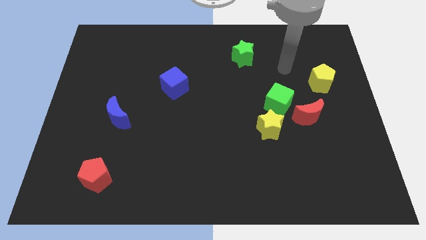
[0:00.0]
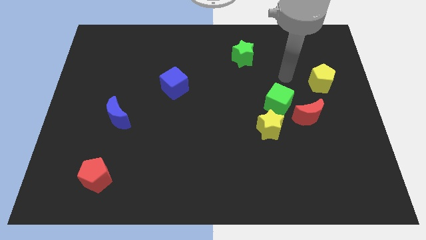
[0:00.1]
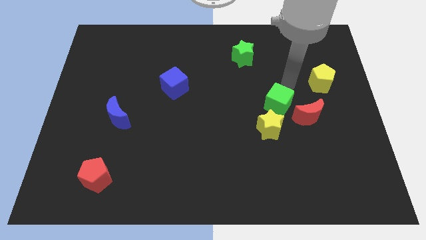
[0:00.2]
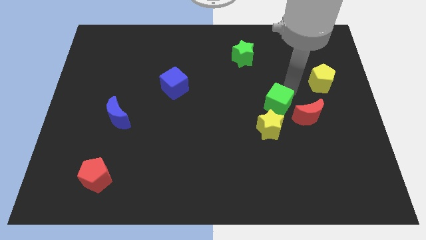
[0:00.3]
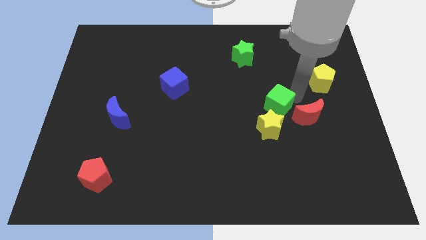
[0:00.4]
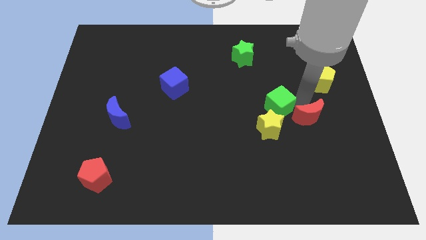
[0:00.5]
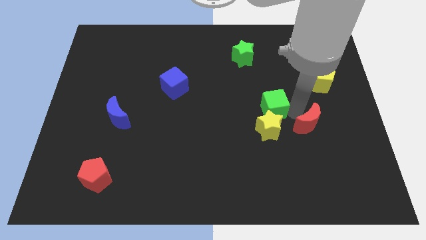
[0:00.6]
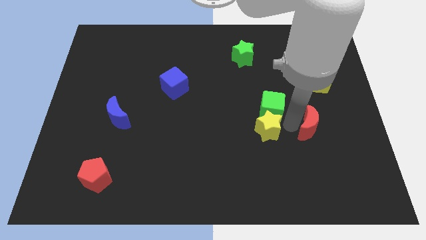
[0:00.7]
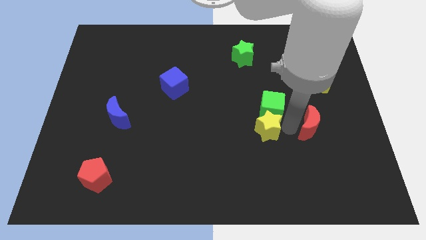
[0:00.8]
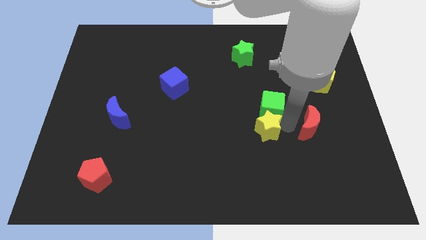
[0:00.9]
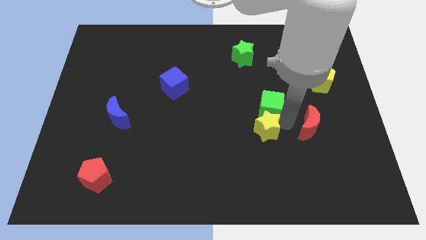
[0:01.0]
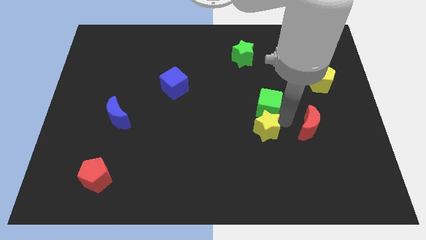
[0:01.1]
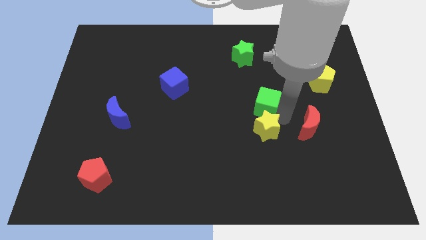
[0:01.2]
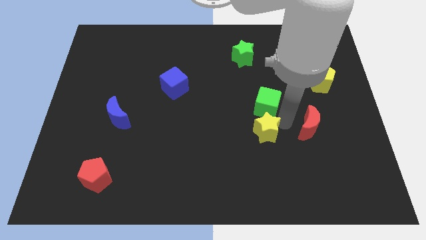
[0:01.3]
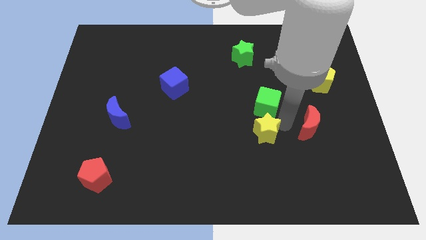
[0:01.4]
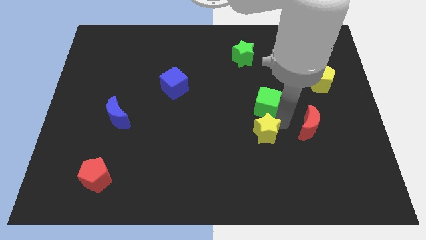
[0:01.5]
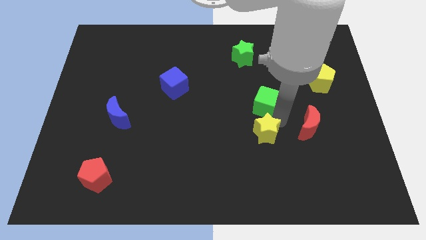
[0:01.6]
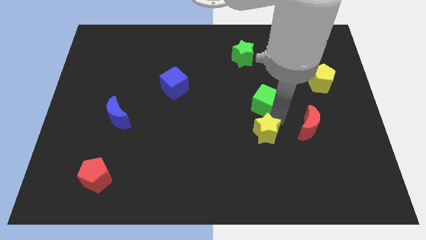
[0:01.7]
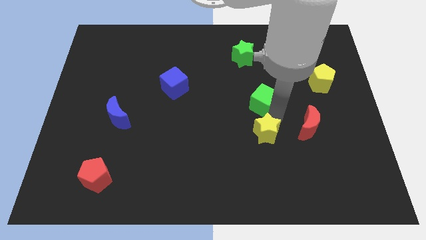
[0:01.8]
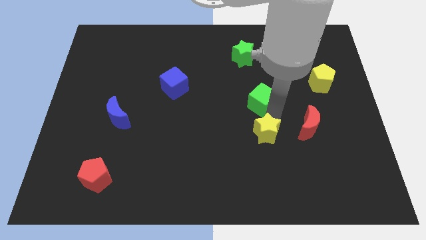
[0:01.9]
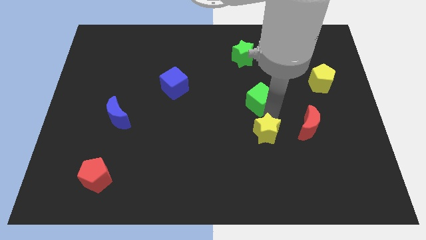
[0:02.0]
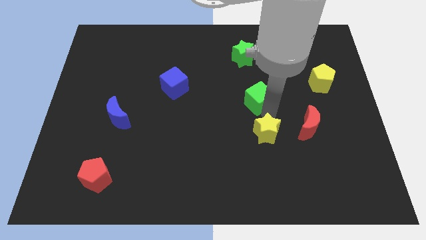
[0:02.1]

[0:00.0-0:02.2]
move the green cube away from the yellow star and red moon

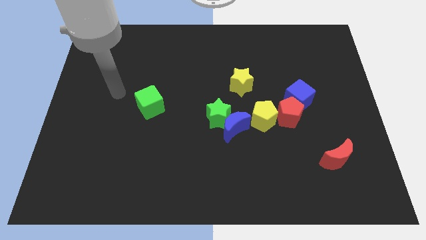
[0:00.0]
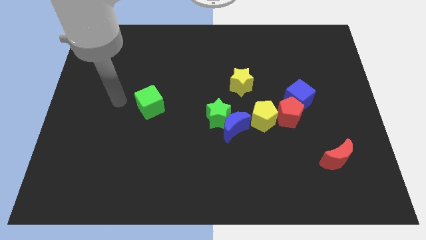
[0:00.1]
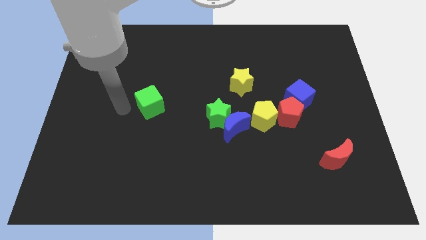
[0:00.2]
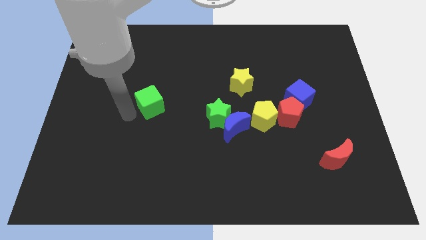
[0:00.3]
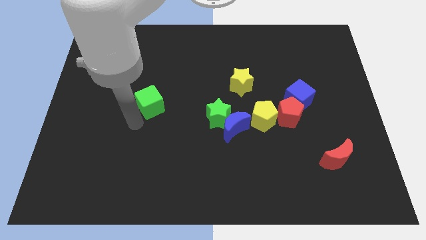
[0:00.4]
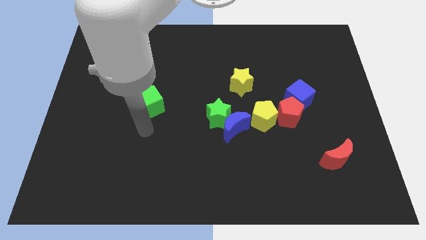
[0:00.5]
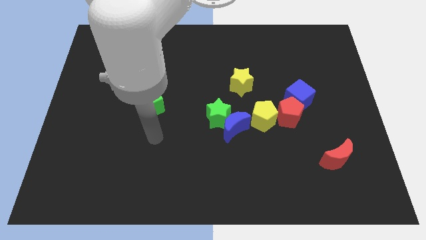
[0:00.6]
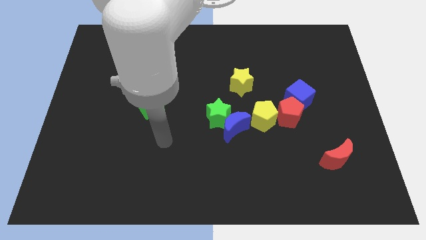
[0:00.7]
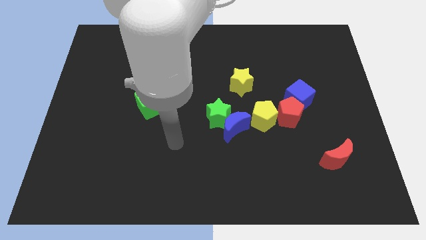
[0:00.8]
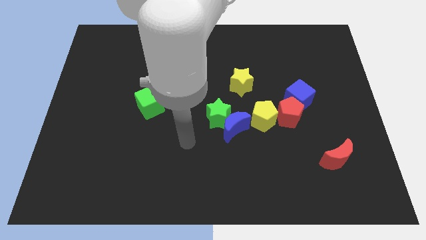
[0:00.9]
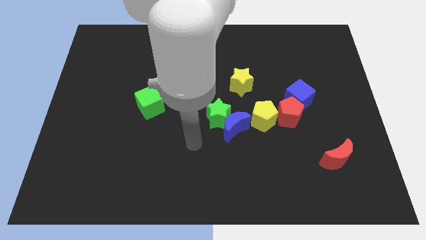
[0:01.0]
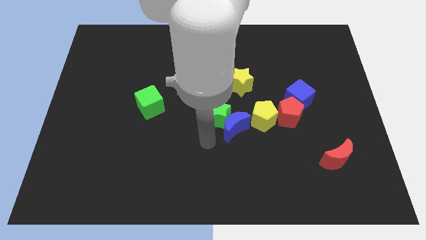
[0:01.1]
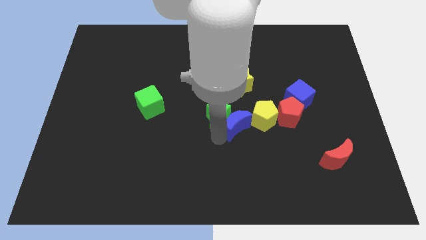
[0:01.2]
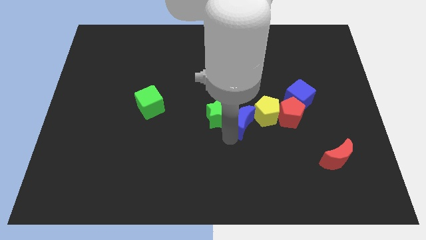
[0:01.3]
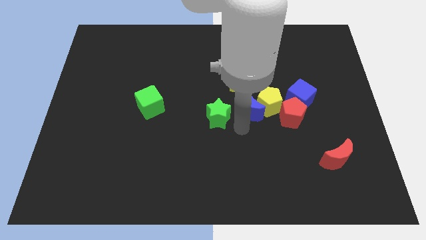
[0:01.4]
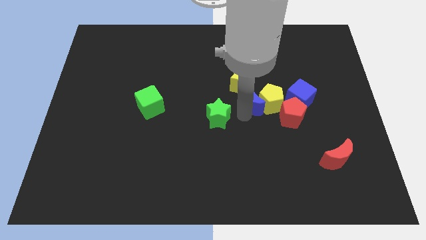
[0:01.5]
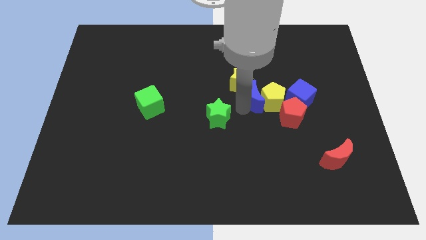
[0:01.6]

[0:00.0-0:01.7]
separate the green star from the blue moon

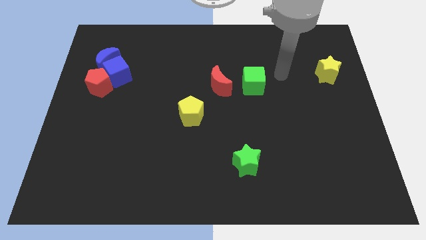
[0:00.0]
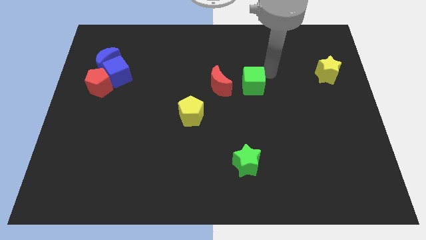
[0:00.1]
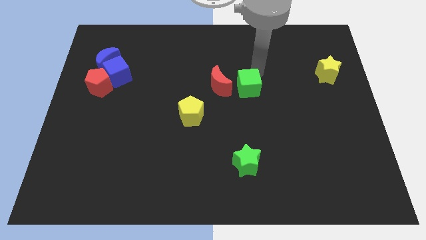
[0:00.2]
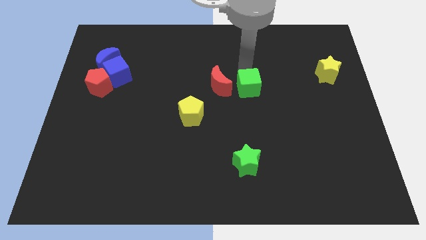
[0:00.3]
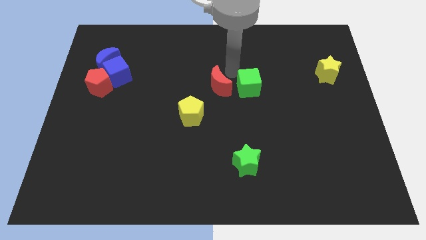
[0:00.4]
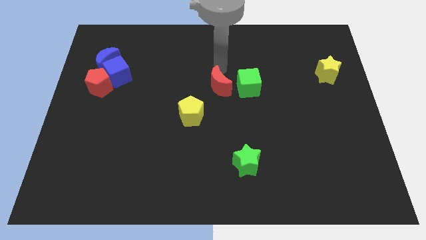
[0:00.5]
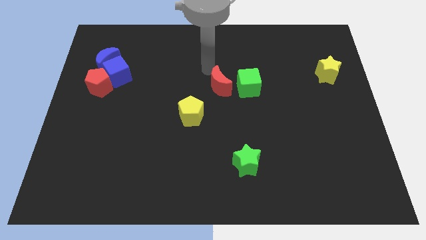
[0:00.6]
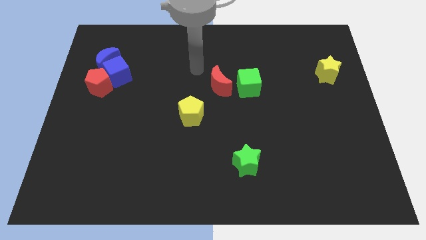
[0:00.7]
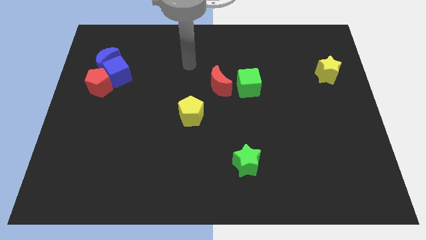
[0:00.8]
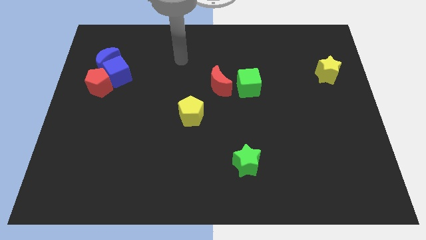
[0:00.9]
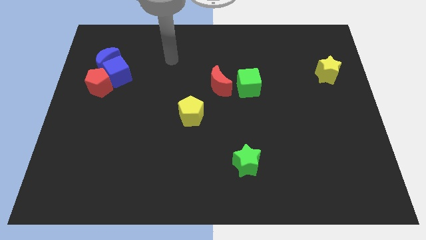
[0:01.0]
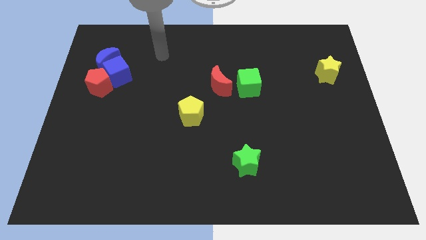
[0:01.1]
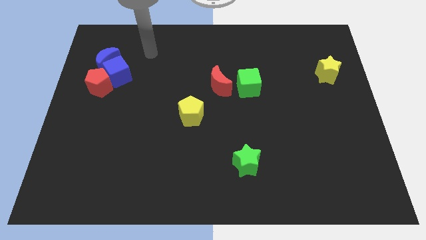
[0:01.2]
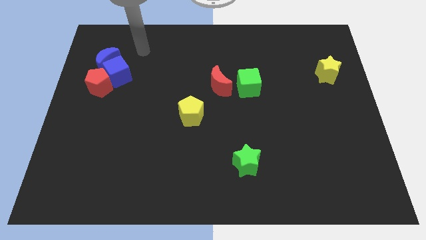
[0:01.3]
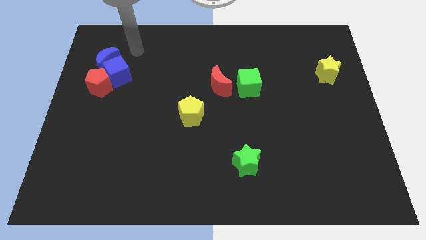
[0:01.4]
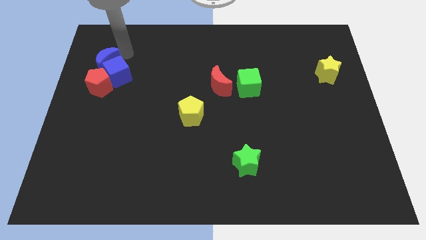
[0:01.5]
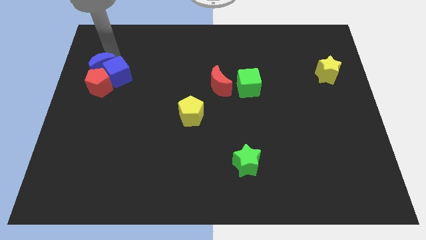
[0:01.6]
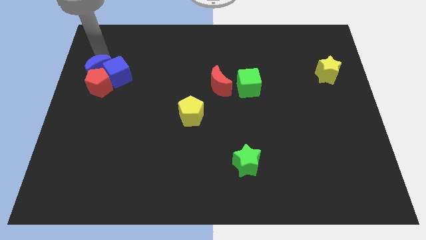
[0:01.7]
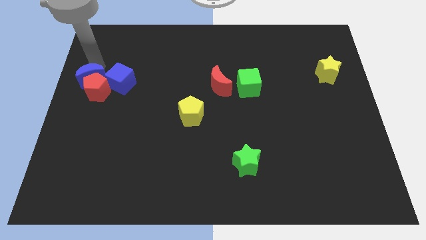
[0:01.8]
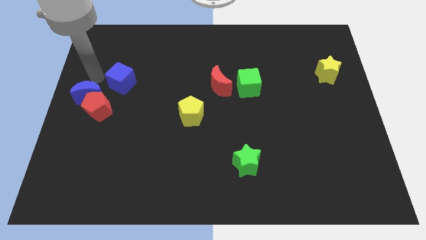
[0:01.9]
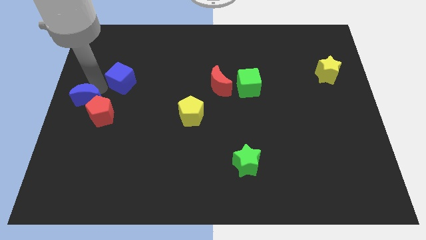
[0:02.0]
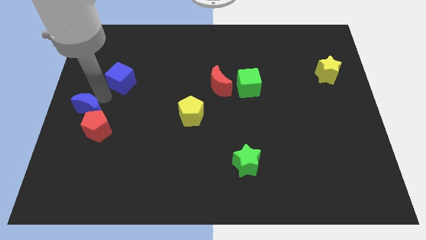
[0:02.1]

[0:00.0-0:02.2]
pull the blue cube apart from the blue moon and red pentagon

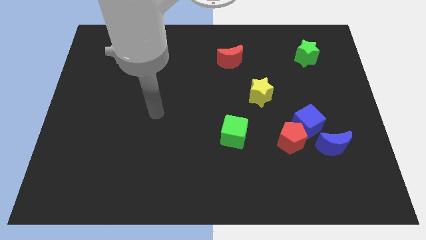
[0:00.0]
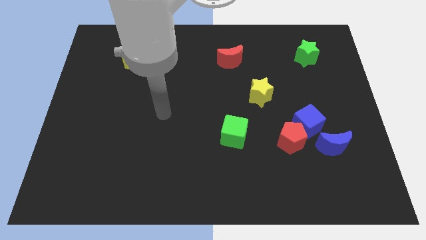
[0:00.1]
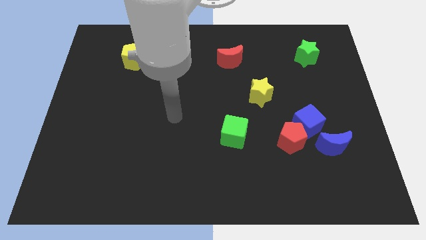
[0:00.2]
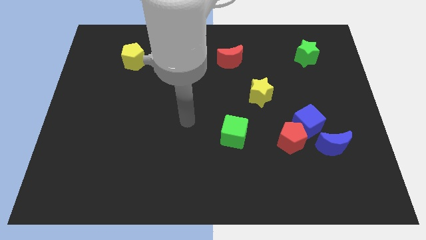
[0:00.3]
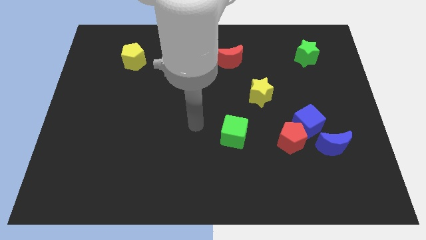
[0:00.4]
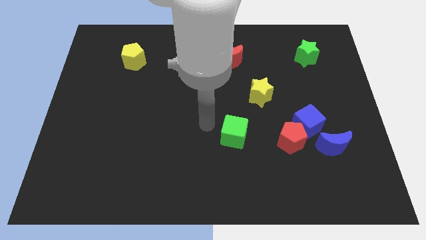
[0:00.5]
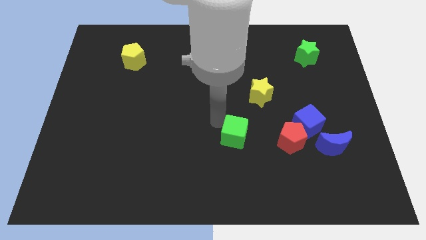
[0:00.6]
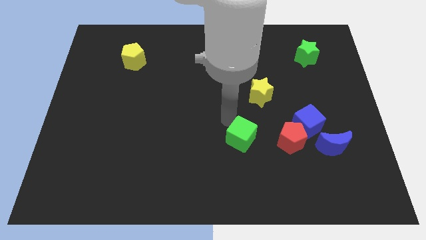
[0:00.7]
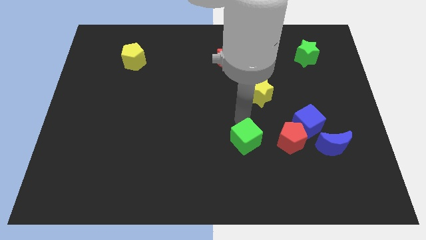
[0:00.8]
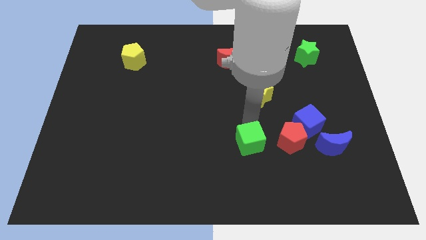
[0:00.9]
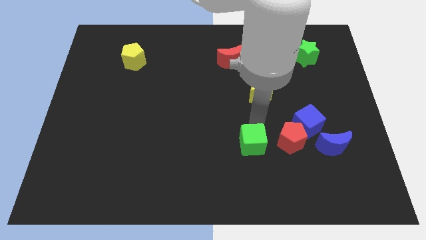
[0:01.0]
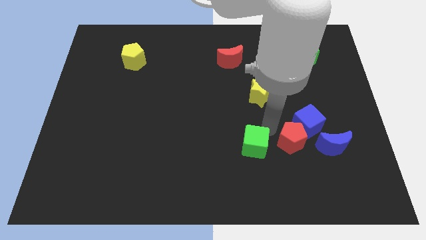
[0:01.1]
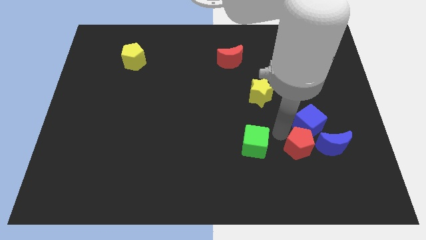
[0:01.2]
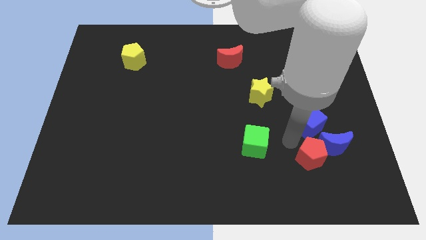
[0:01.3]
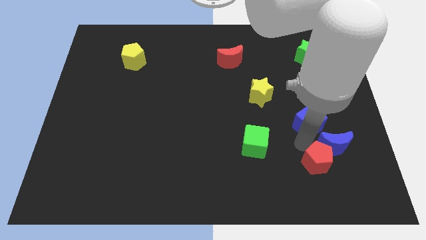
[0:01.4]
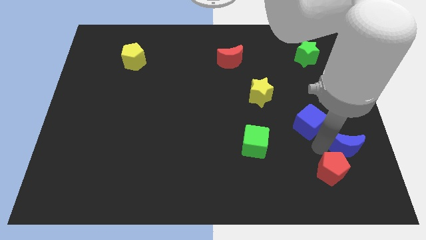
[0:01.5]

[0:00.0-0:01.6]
separate the blue cube from the red pentagon and blue moon

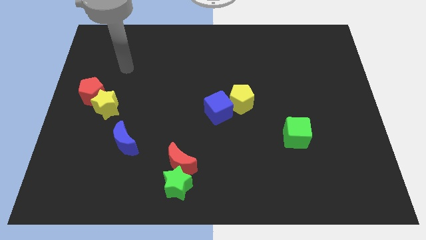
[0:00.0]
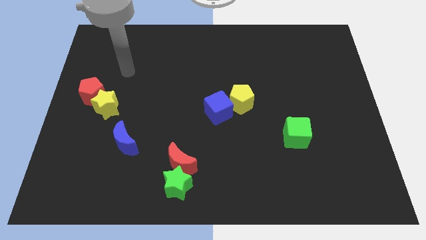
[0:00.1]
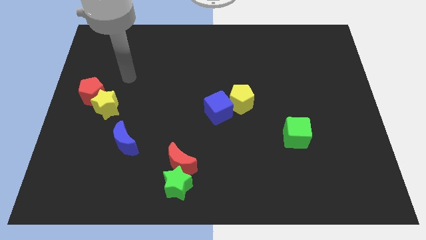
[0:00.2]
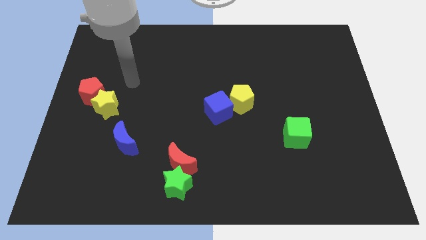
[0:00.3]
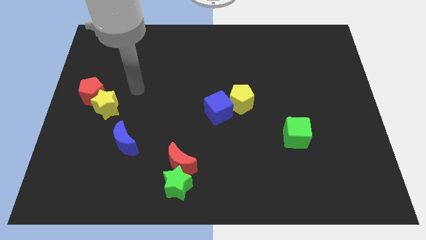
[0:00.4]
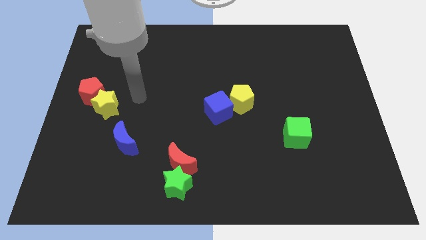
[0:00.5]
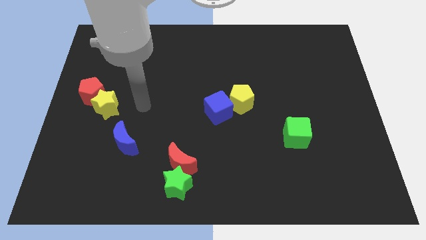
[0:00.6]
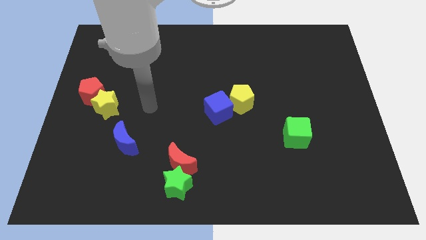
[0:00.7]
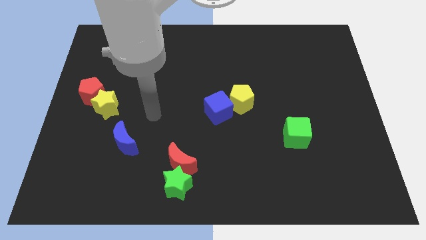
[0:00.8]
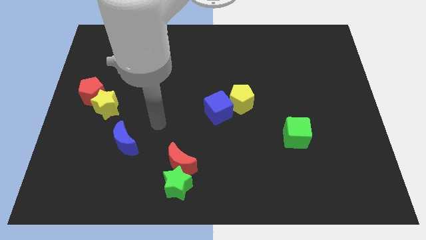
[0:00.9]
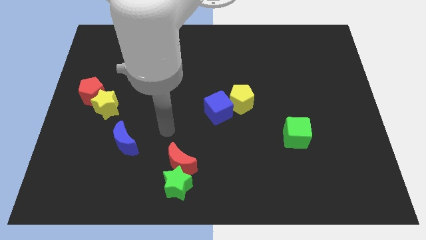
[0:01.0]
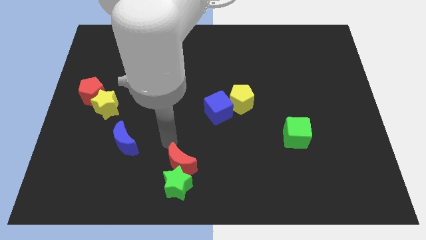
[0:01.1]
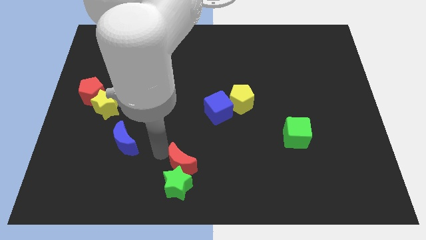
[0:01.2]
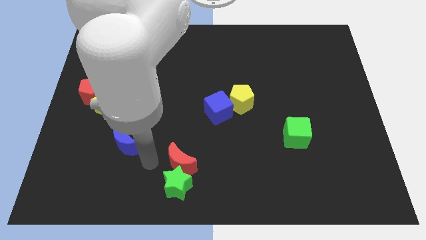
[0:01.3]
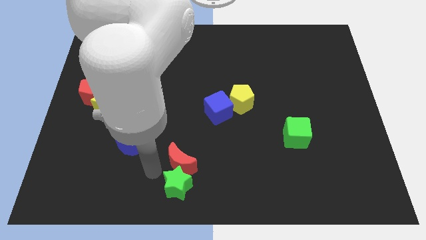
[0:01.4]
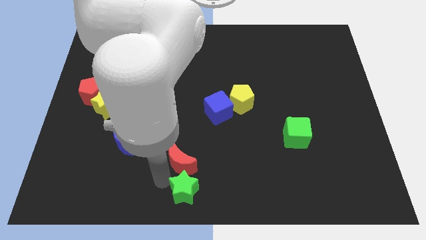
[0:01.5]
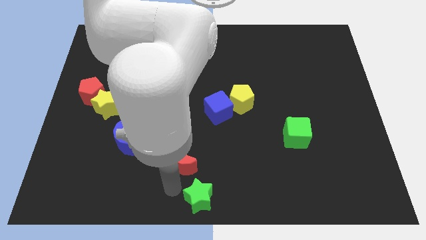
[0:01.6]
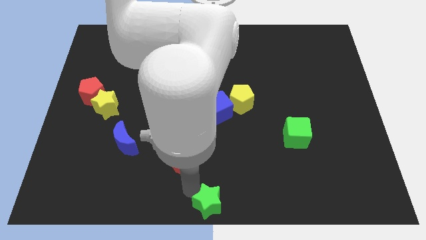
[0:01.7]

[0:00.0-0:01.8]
separate the red moon from the green star
